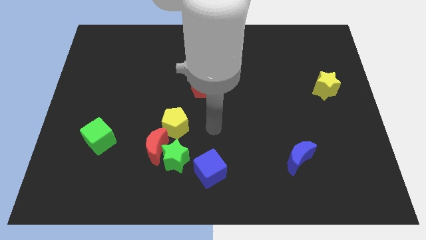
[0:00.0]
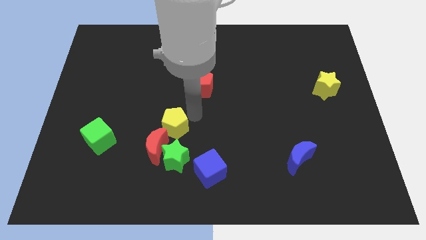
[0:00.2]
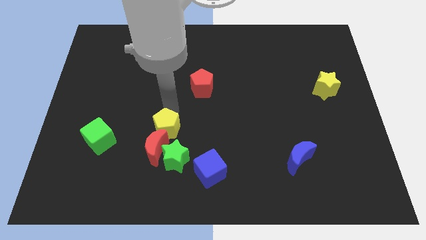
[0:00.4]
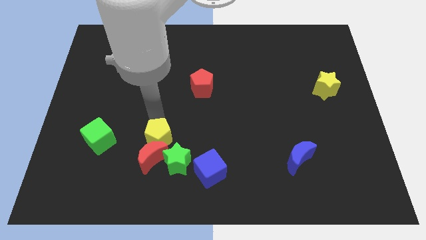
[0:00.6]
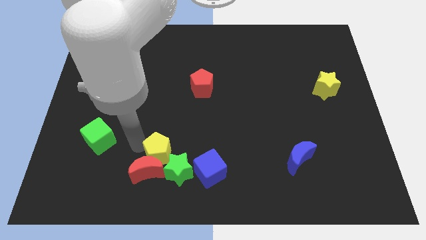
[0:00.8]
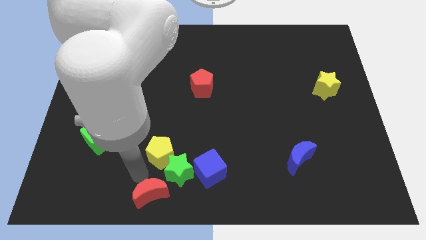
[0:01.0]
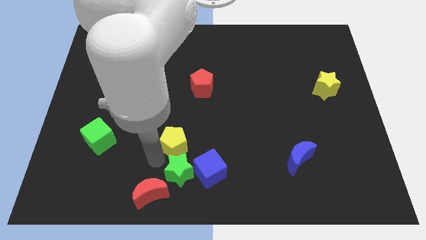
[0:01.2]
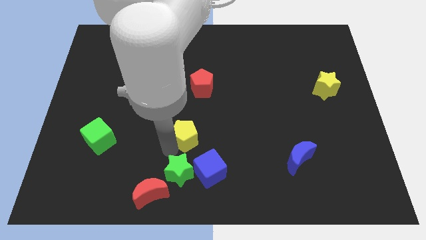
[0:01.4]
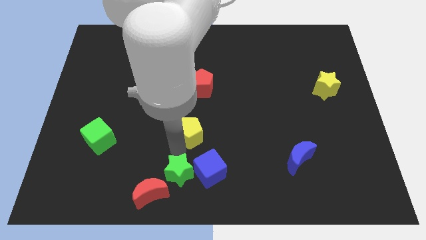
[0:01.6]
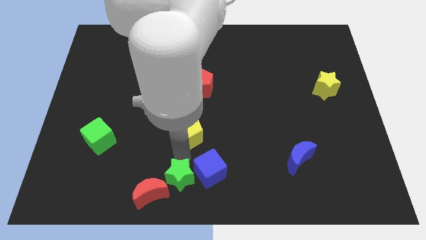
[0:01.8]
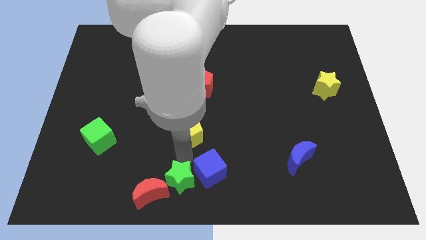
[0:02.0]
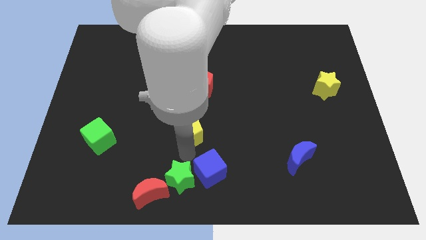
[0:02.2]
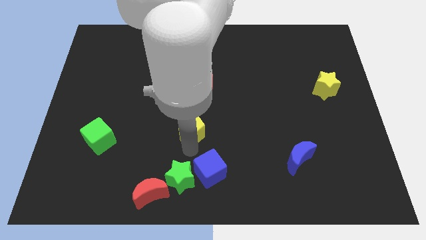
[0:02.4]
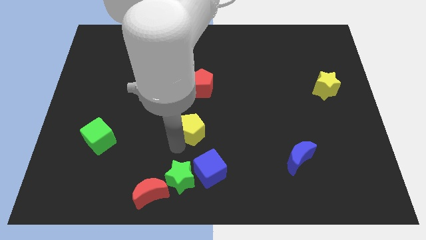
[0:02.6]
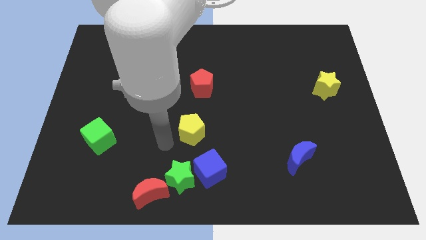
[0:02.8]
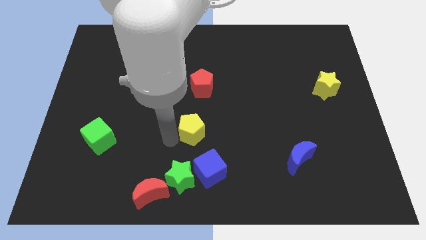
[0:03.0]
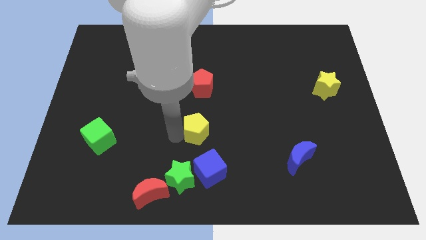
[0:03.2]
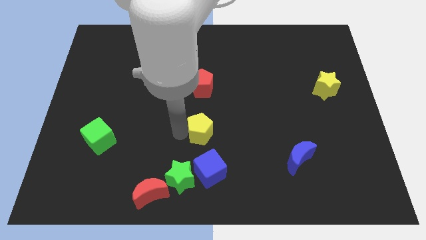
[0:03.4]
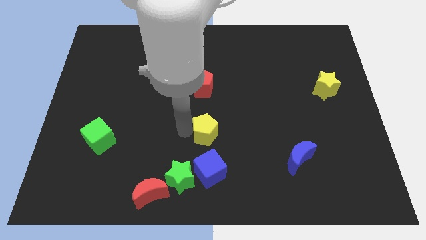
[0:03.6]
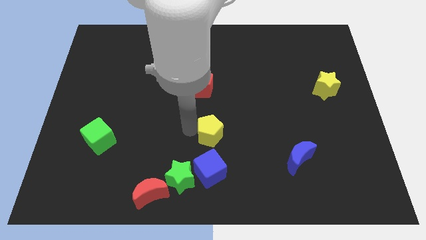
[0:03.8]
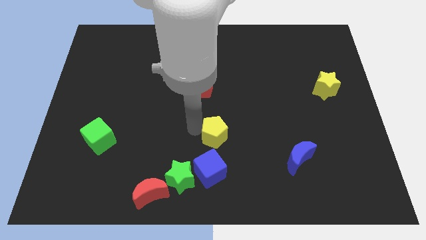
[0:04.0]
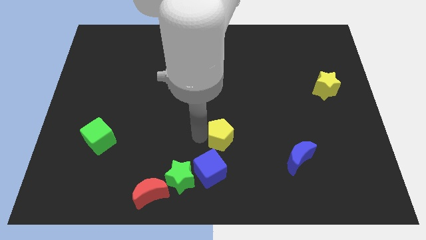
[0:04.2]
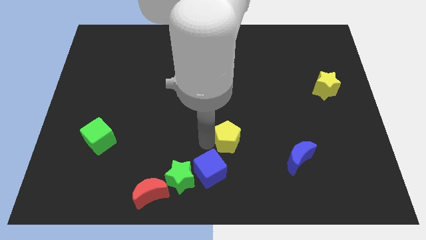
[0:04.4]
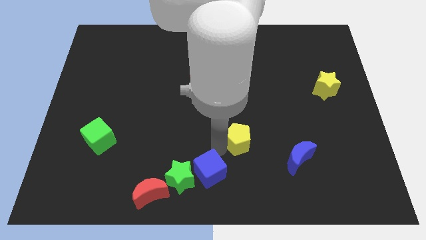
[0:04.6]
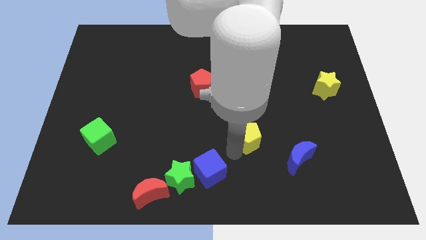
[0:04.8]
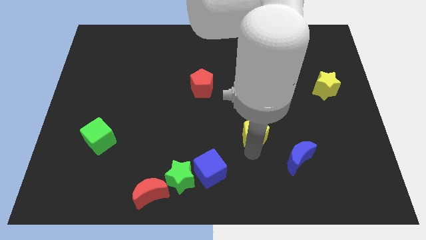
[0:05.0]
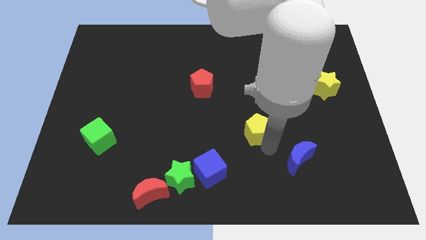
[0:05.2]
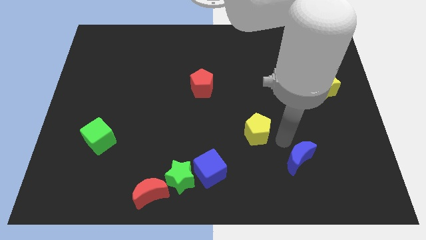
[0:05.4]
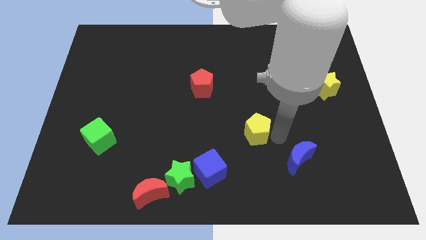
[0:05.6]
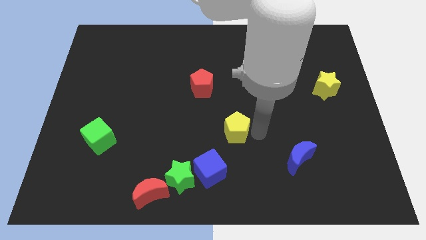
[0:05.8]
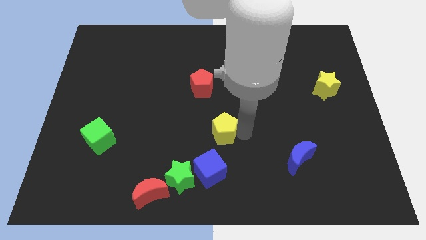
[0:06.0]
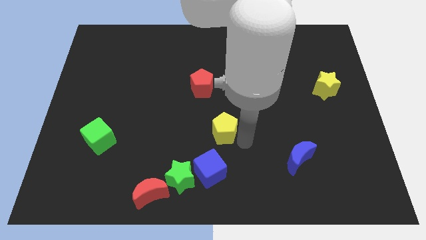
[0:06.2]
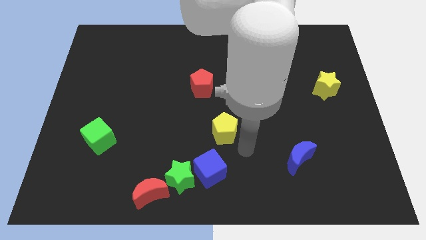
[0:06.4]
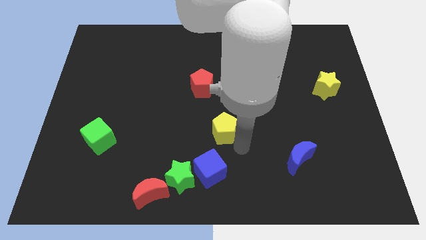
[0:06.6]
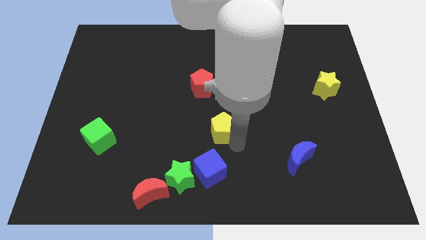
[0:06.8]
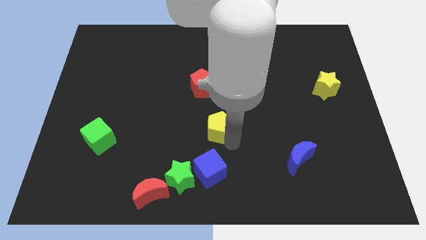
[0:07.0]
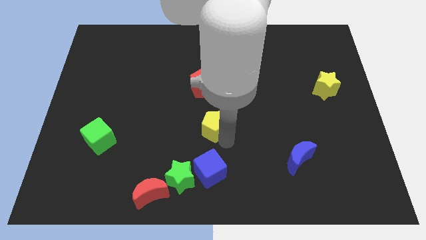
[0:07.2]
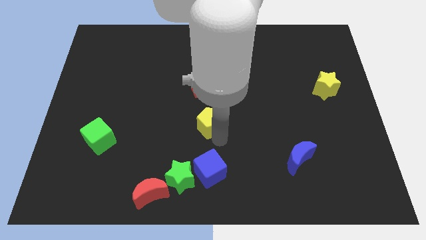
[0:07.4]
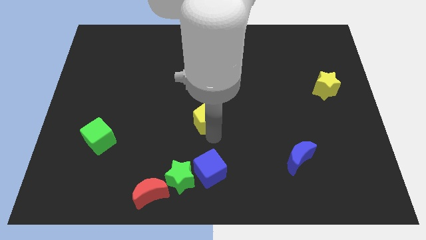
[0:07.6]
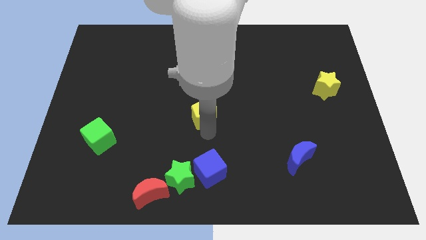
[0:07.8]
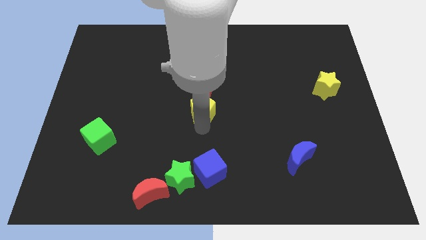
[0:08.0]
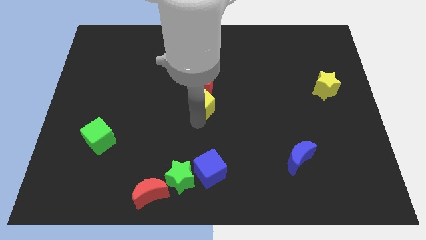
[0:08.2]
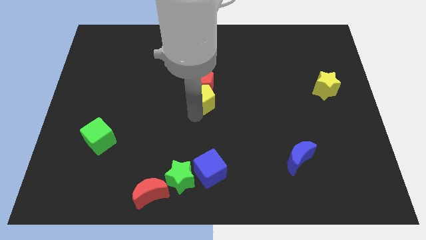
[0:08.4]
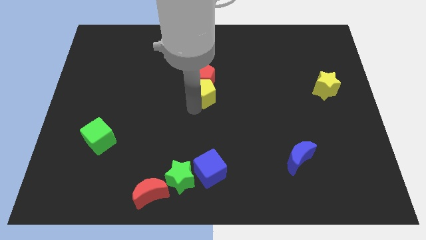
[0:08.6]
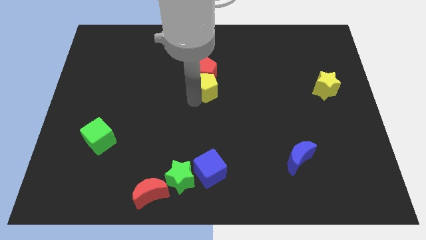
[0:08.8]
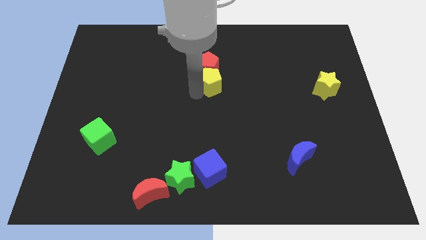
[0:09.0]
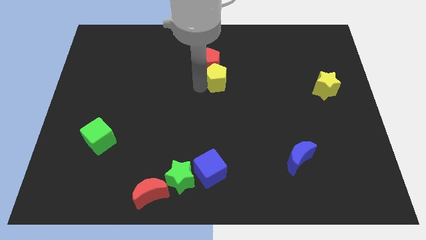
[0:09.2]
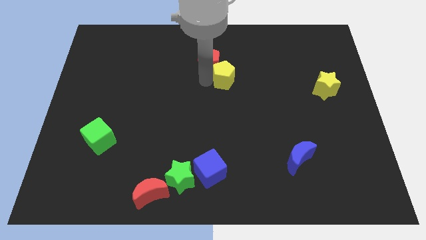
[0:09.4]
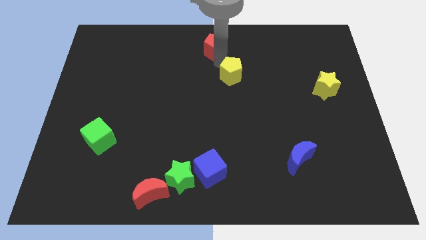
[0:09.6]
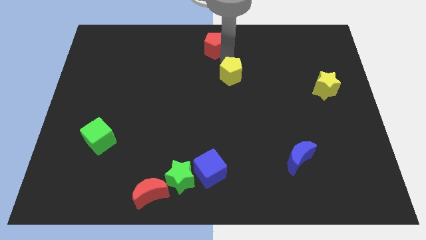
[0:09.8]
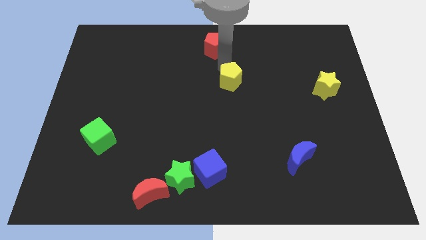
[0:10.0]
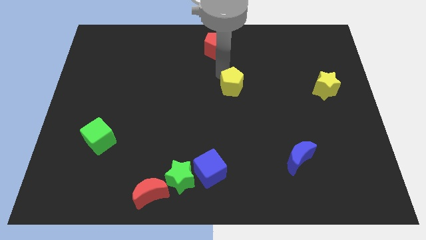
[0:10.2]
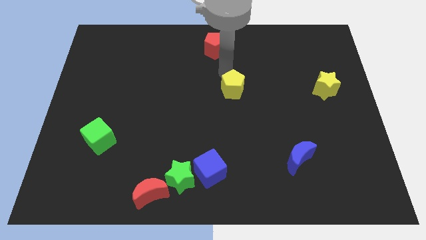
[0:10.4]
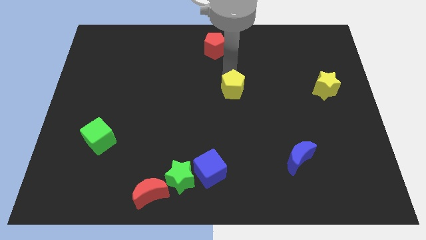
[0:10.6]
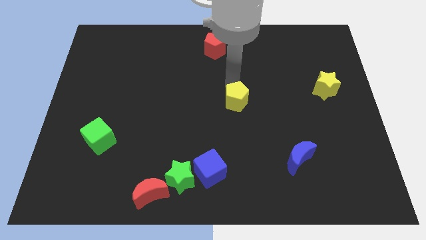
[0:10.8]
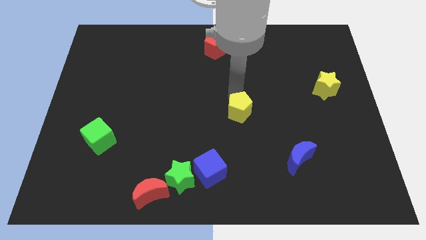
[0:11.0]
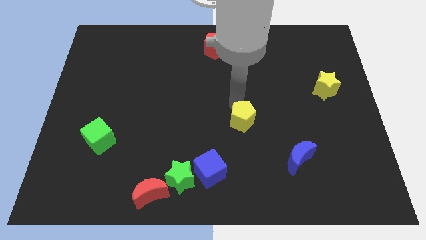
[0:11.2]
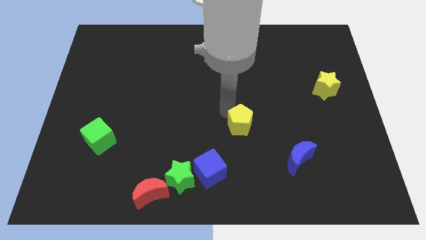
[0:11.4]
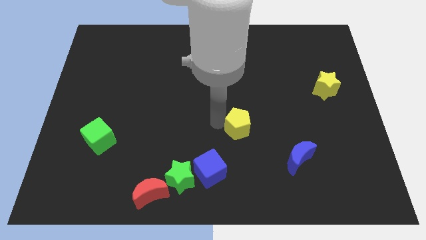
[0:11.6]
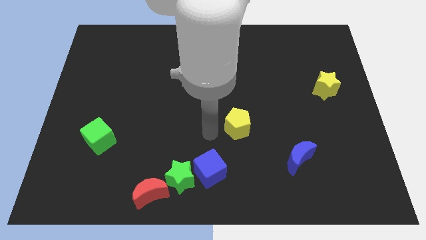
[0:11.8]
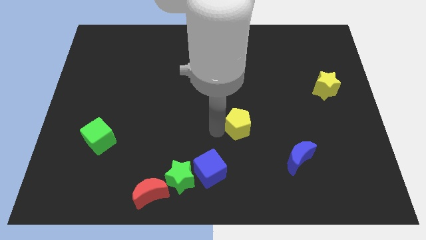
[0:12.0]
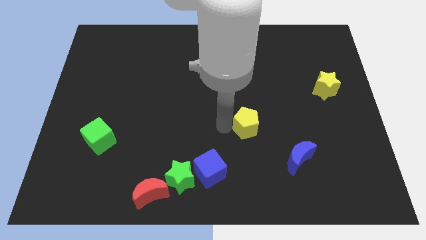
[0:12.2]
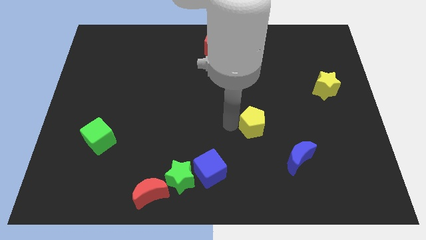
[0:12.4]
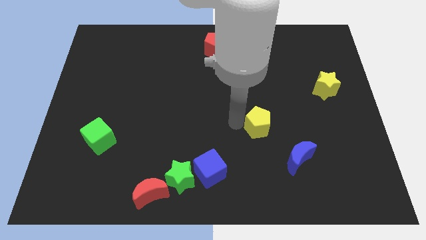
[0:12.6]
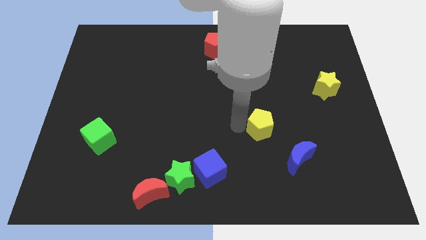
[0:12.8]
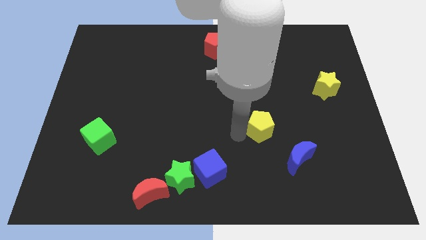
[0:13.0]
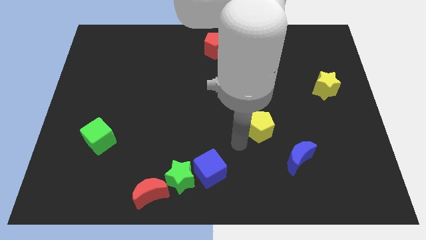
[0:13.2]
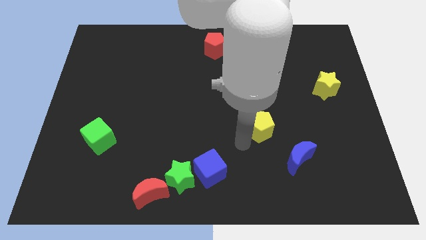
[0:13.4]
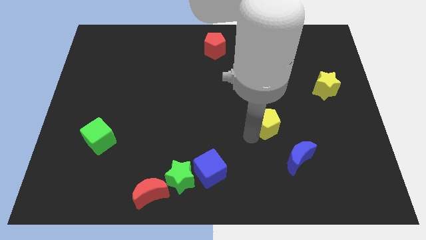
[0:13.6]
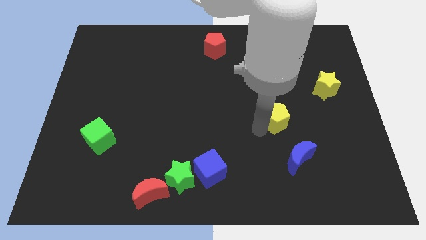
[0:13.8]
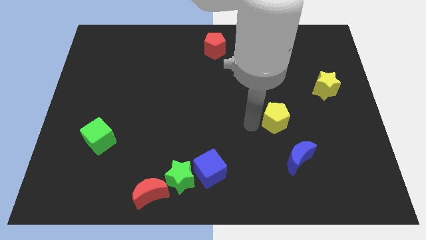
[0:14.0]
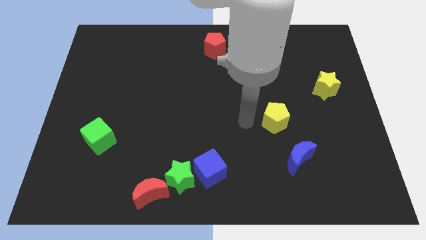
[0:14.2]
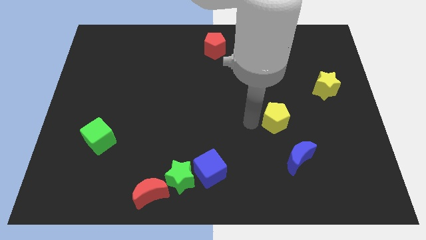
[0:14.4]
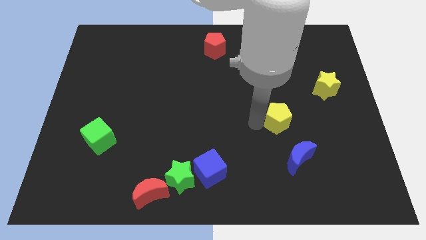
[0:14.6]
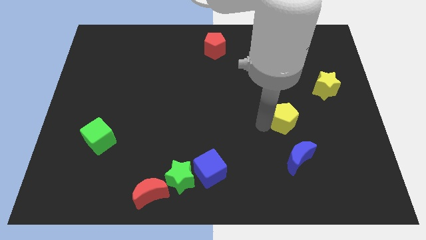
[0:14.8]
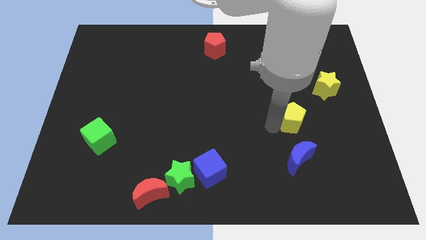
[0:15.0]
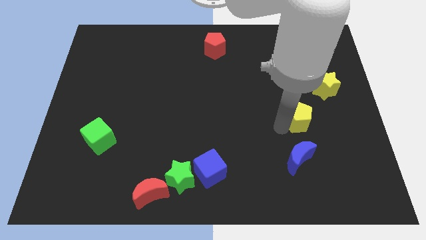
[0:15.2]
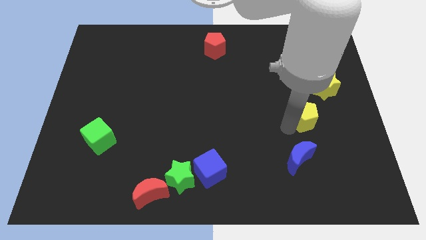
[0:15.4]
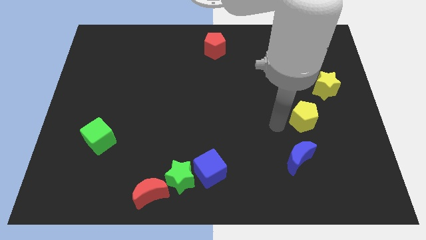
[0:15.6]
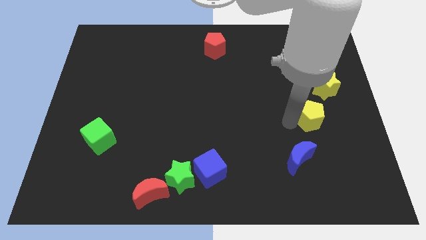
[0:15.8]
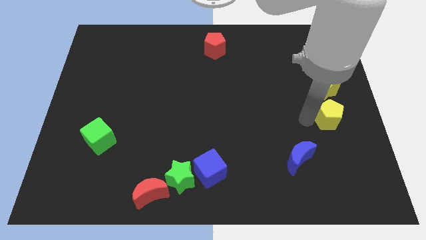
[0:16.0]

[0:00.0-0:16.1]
move the yellow pentagon to the right side
